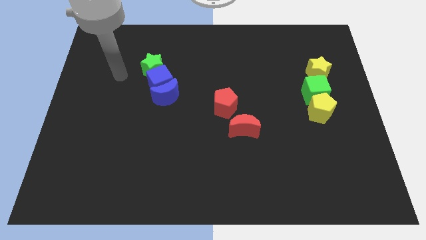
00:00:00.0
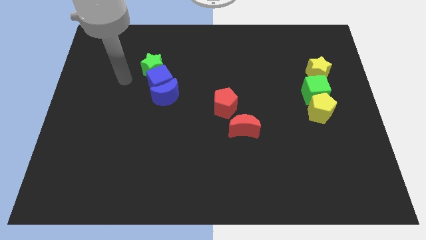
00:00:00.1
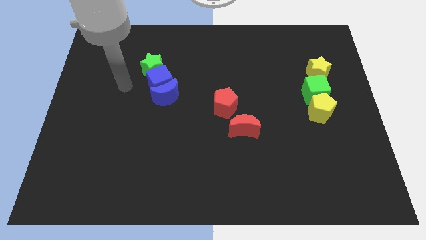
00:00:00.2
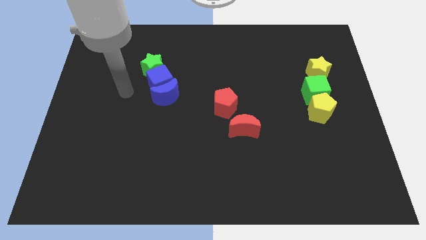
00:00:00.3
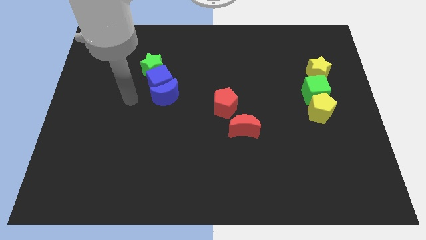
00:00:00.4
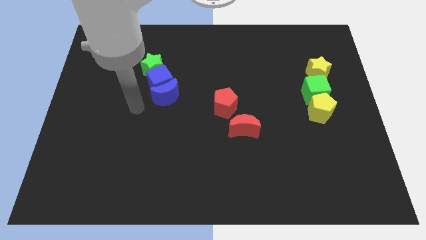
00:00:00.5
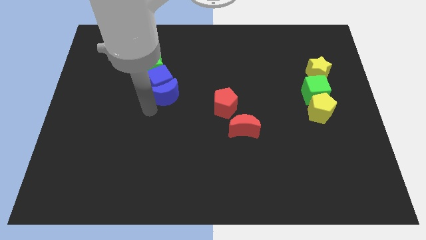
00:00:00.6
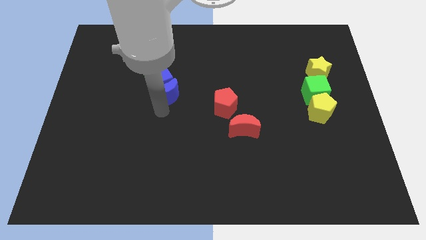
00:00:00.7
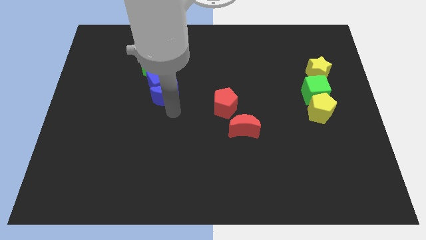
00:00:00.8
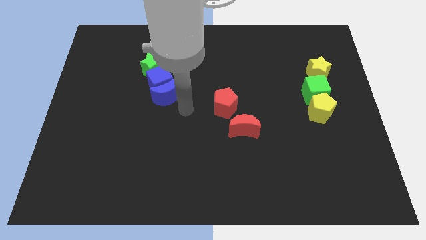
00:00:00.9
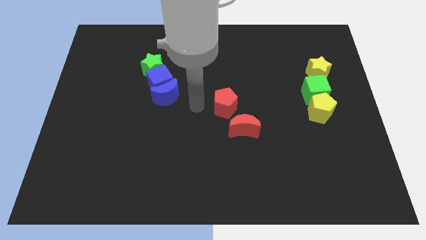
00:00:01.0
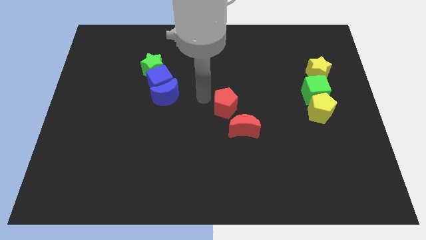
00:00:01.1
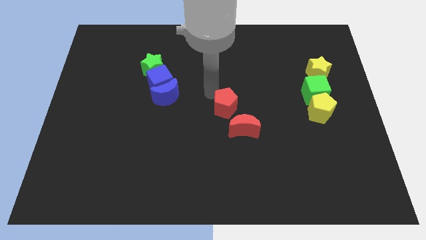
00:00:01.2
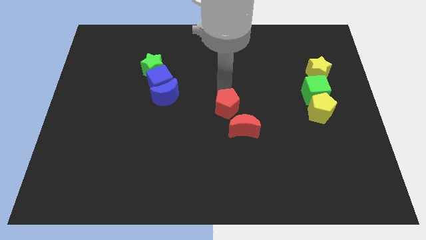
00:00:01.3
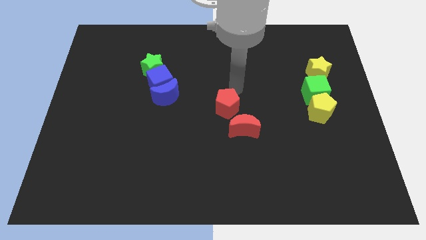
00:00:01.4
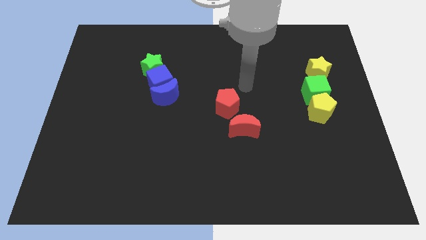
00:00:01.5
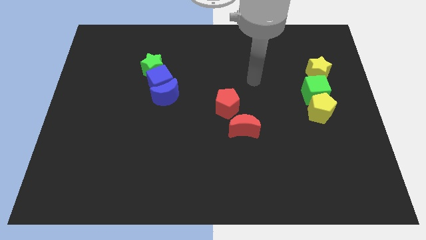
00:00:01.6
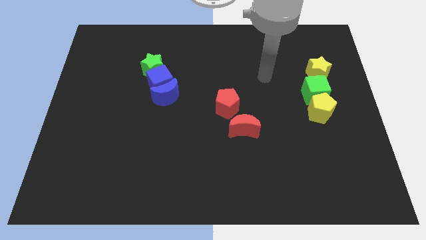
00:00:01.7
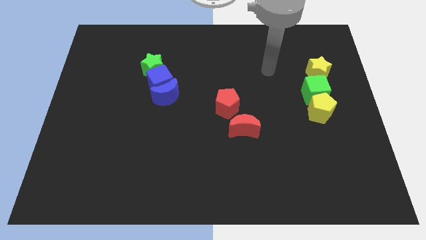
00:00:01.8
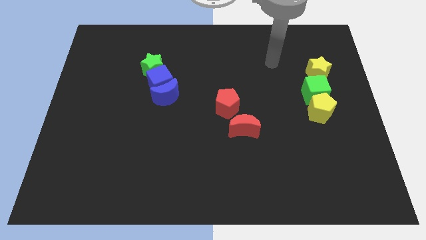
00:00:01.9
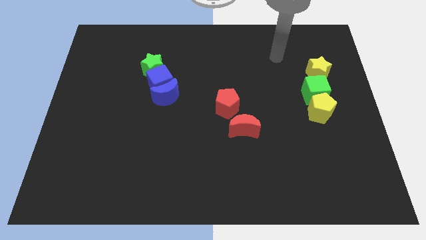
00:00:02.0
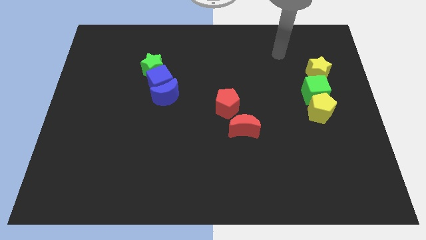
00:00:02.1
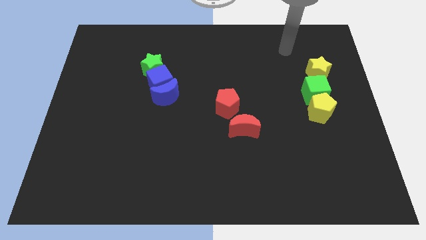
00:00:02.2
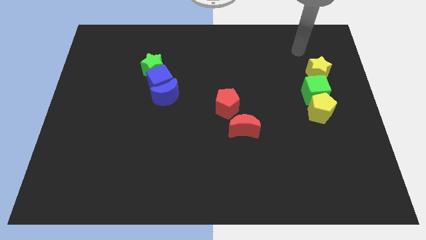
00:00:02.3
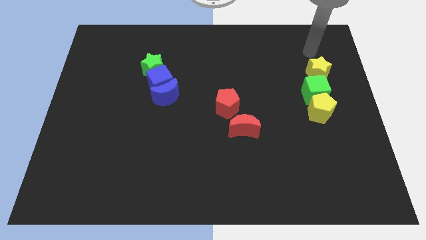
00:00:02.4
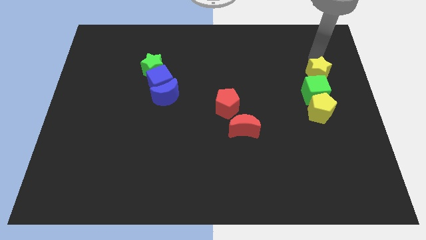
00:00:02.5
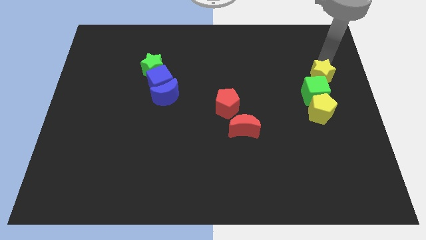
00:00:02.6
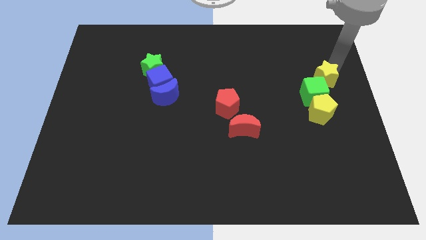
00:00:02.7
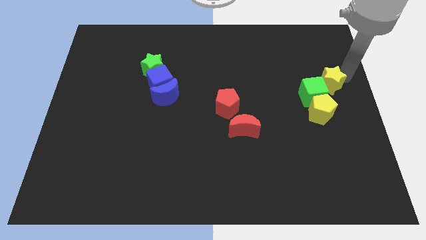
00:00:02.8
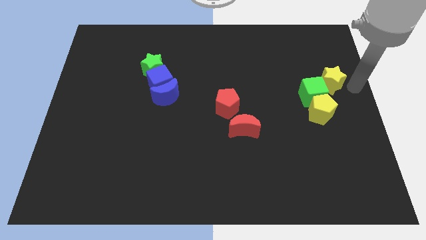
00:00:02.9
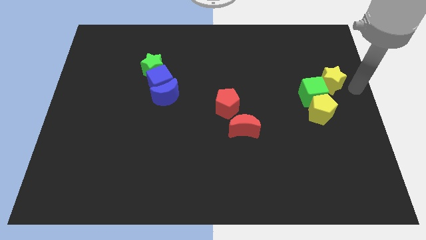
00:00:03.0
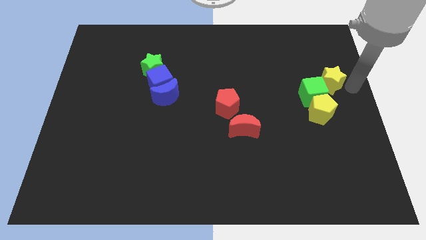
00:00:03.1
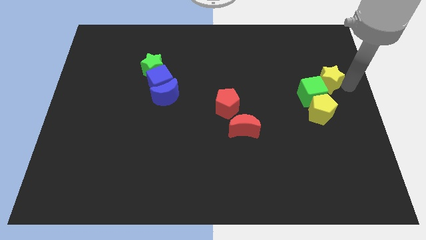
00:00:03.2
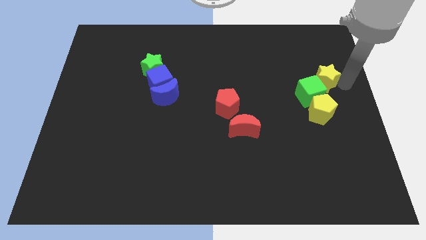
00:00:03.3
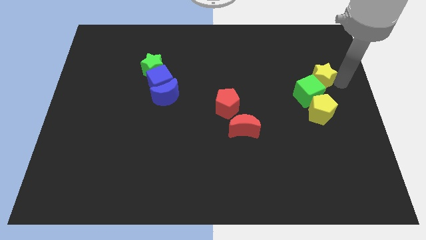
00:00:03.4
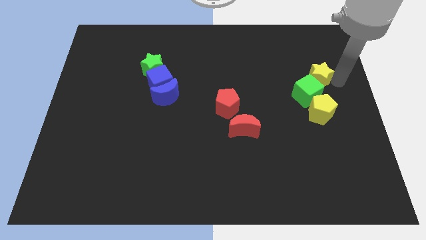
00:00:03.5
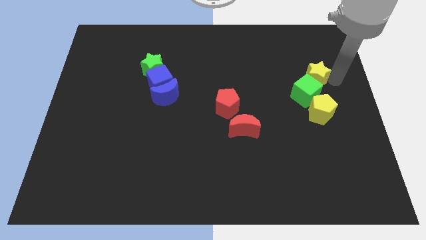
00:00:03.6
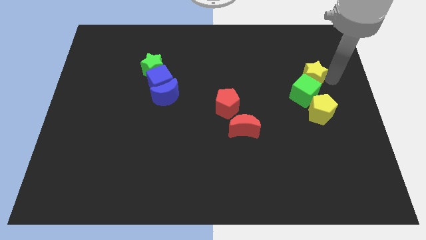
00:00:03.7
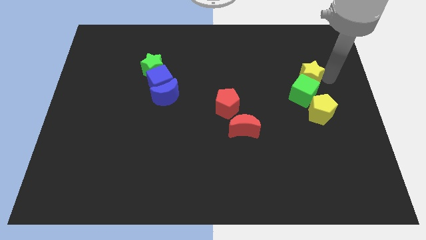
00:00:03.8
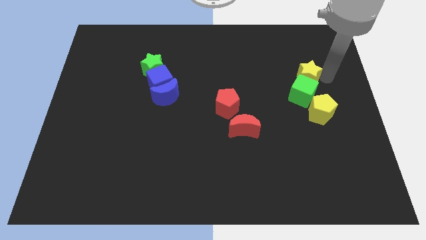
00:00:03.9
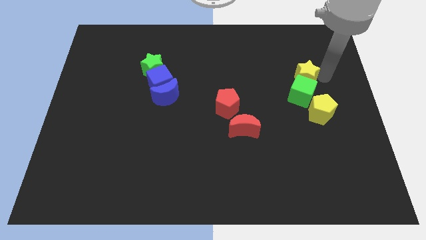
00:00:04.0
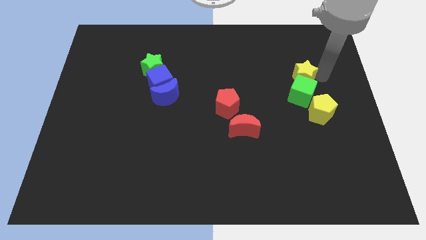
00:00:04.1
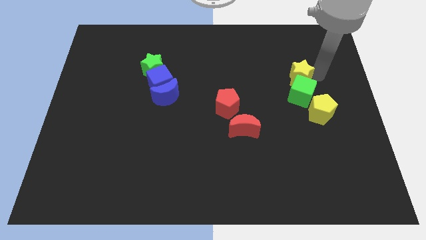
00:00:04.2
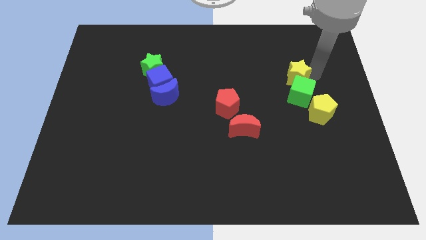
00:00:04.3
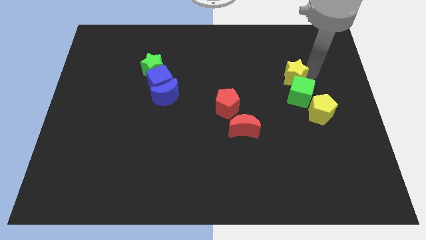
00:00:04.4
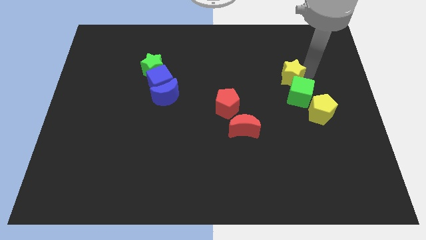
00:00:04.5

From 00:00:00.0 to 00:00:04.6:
slightly move the yellow star to the left

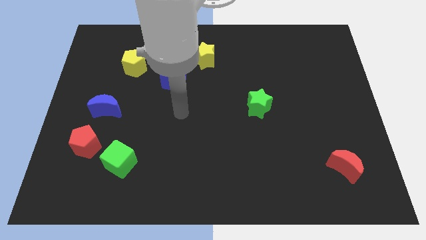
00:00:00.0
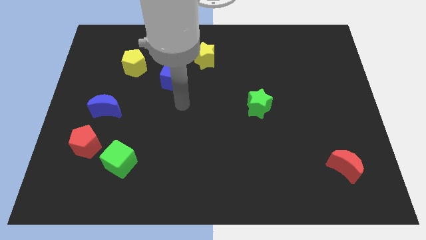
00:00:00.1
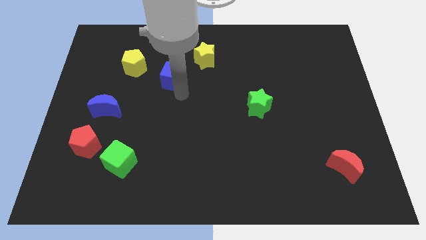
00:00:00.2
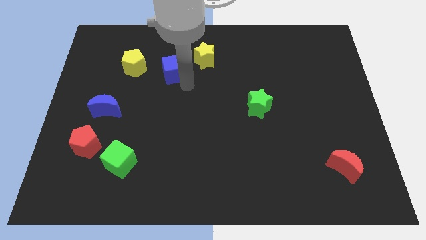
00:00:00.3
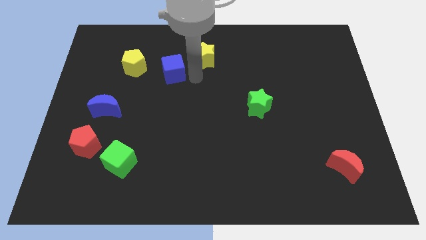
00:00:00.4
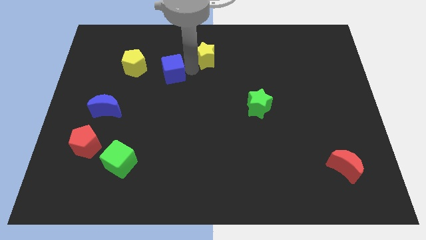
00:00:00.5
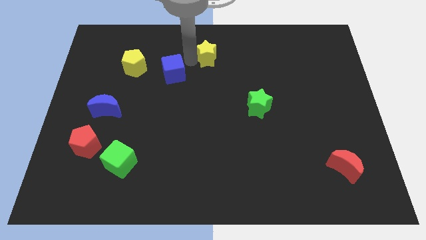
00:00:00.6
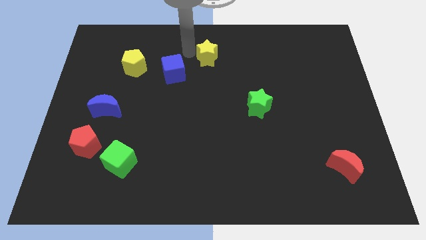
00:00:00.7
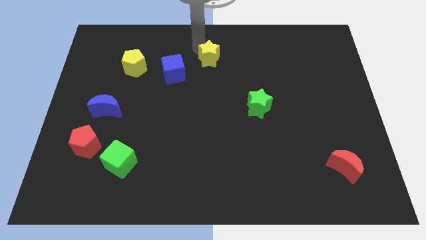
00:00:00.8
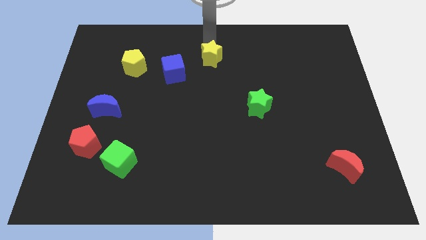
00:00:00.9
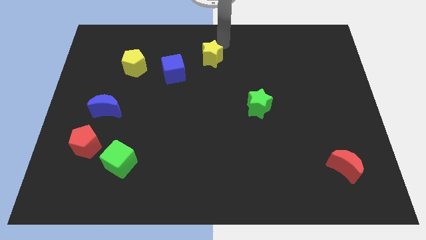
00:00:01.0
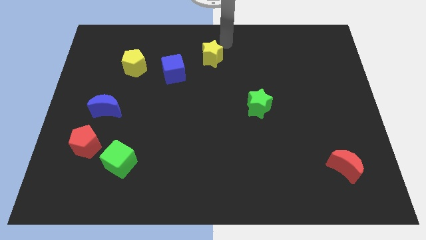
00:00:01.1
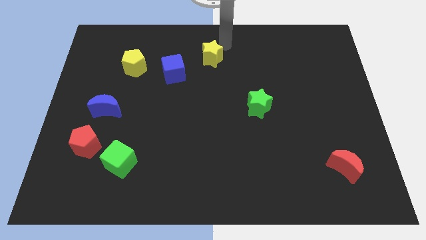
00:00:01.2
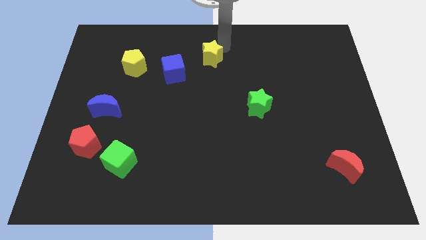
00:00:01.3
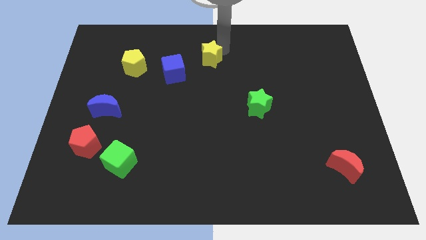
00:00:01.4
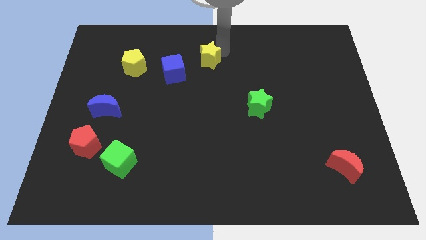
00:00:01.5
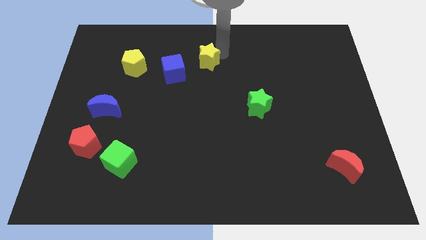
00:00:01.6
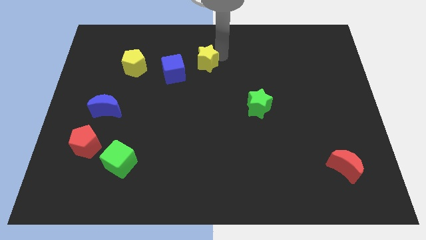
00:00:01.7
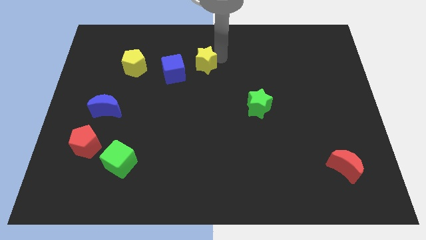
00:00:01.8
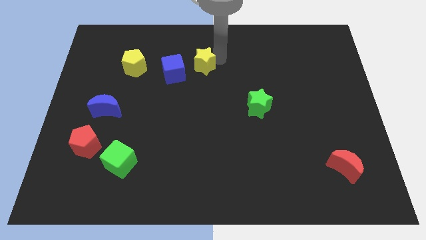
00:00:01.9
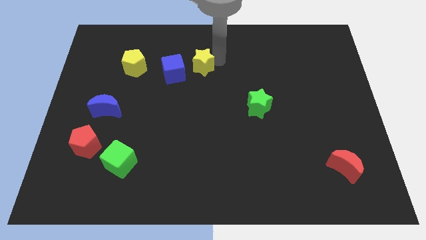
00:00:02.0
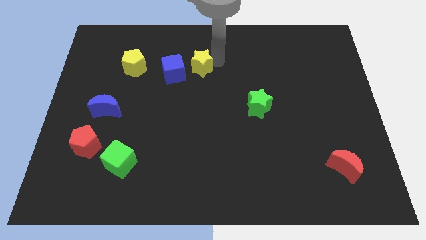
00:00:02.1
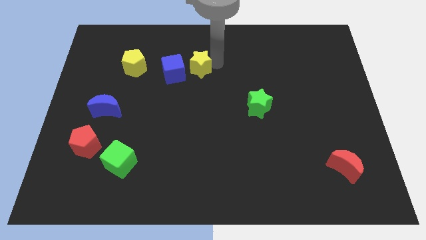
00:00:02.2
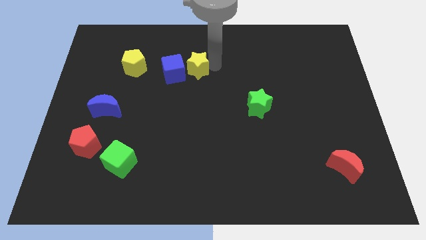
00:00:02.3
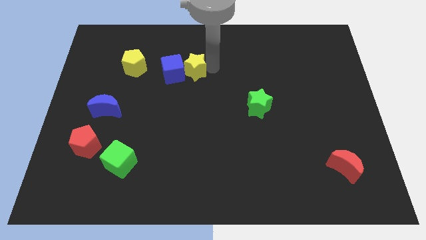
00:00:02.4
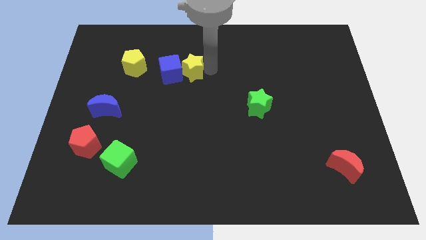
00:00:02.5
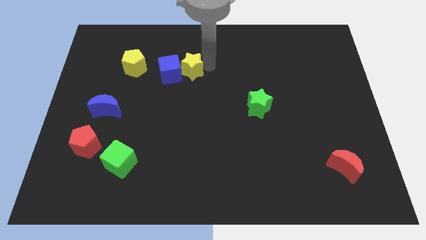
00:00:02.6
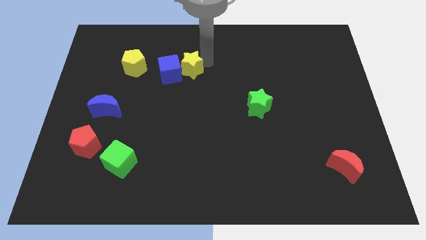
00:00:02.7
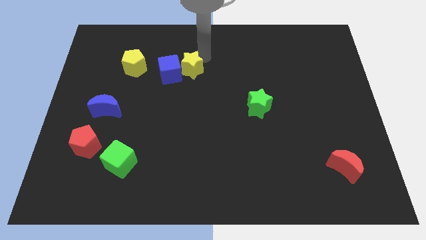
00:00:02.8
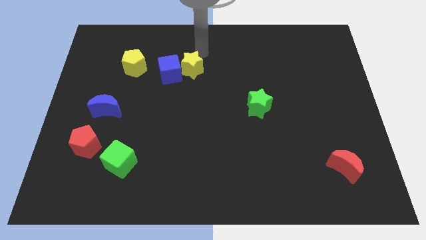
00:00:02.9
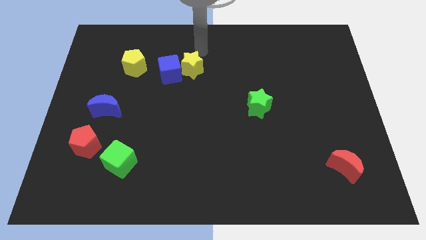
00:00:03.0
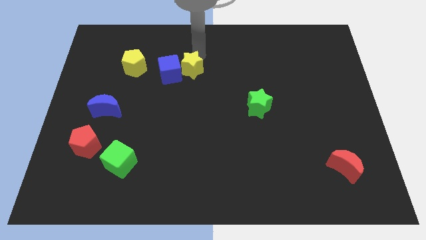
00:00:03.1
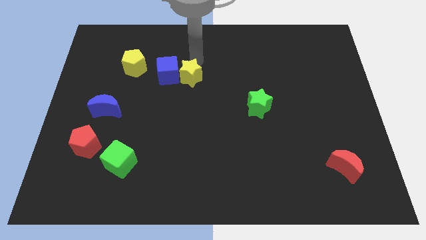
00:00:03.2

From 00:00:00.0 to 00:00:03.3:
push the yellow star somewhat down and left diagonally
